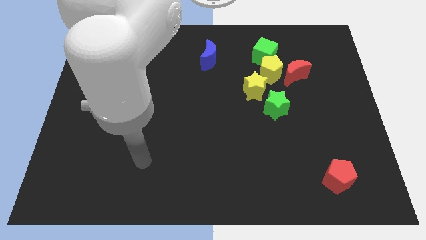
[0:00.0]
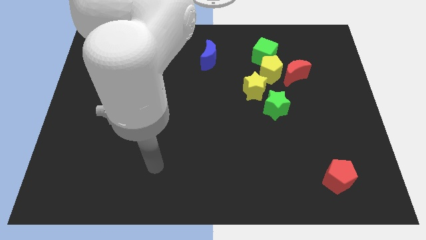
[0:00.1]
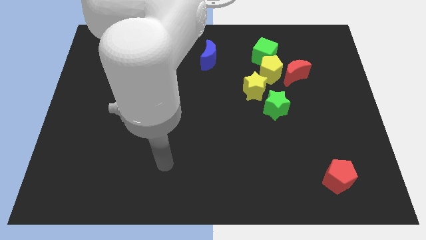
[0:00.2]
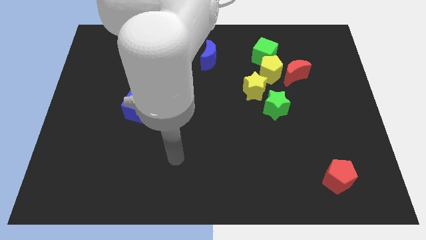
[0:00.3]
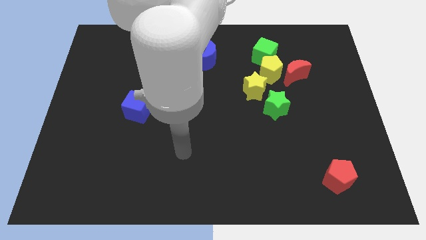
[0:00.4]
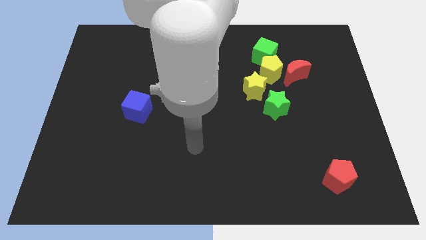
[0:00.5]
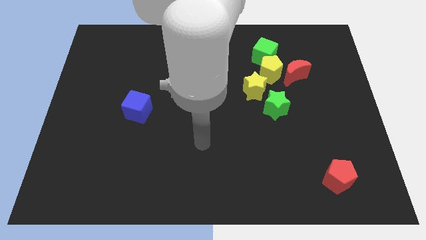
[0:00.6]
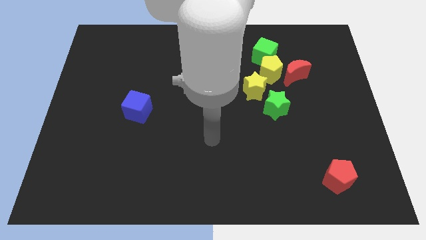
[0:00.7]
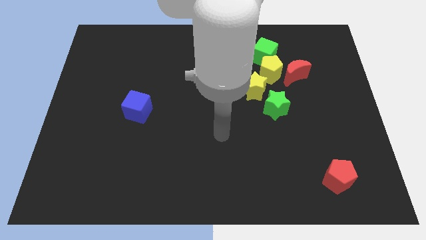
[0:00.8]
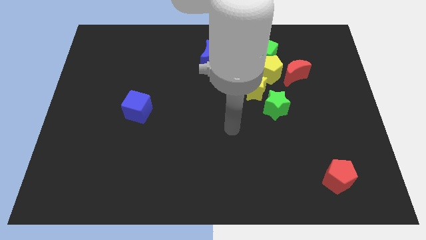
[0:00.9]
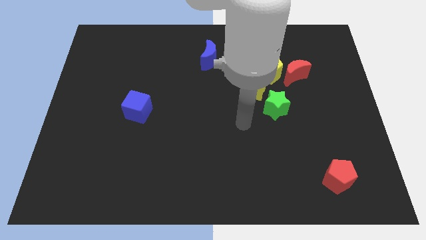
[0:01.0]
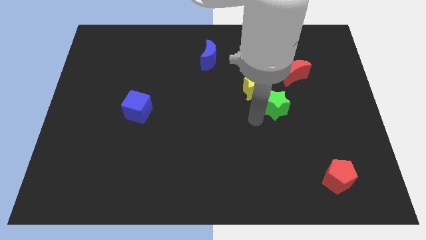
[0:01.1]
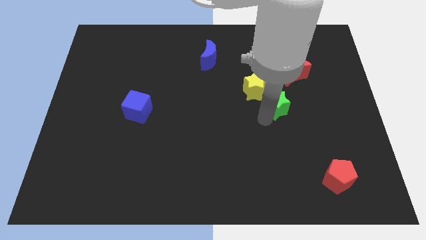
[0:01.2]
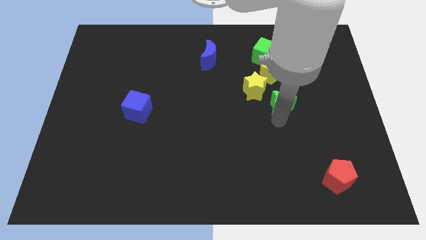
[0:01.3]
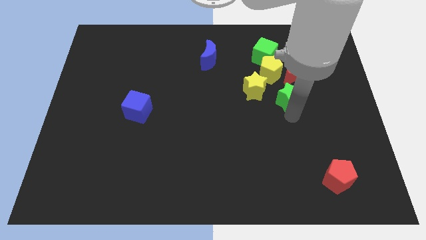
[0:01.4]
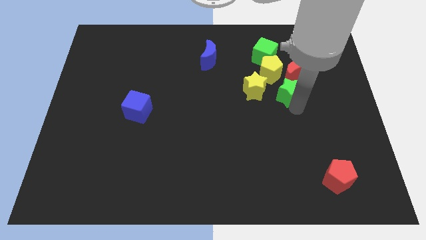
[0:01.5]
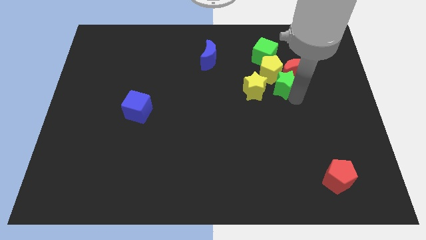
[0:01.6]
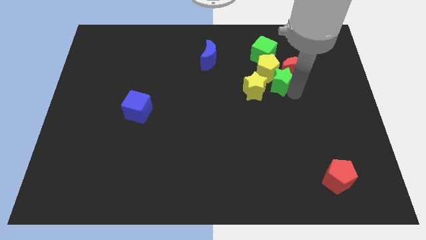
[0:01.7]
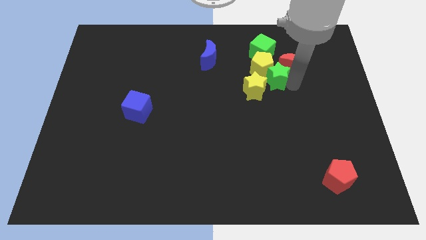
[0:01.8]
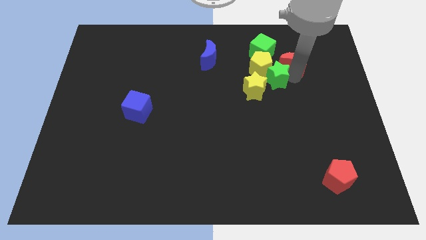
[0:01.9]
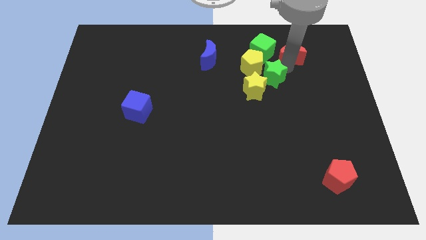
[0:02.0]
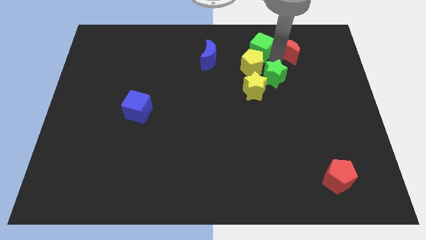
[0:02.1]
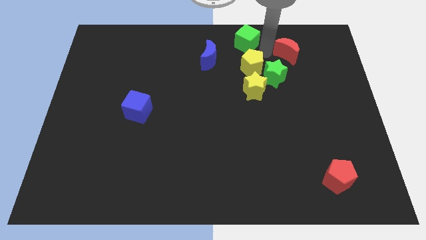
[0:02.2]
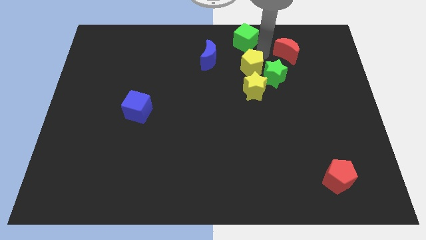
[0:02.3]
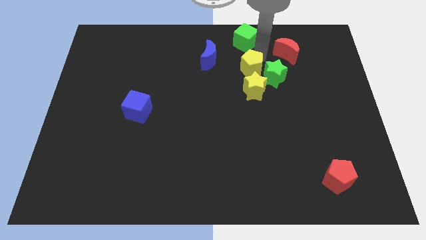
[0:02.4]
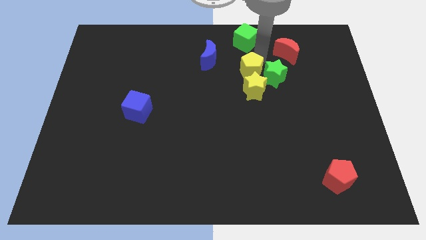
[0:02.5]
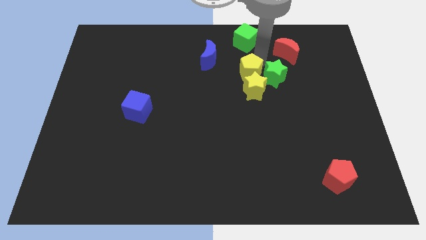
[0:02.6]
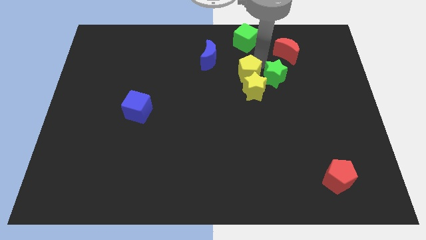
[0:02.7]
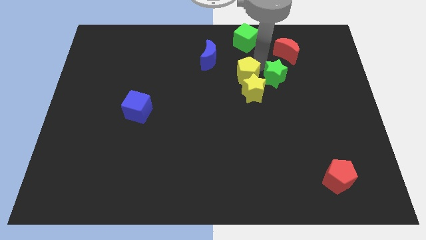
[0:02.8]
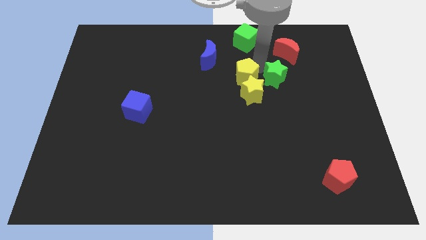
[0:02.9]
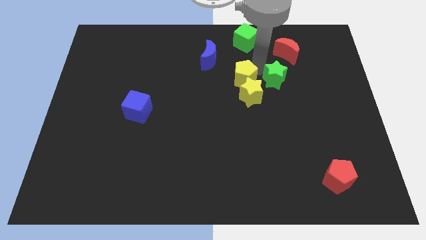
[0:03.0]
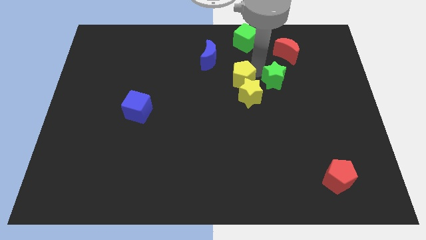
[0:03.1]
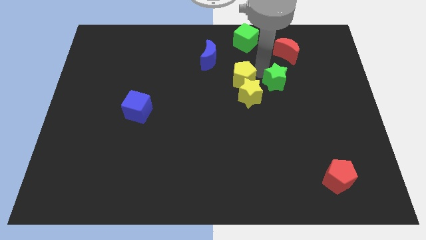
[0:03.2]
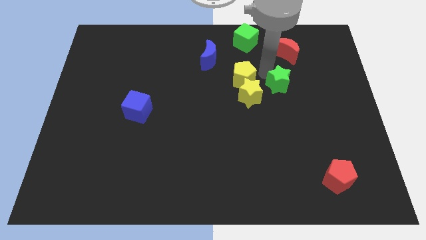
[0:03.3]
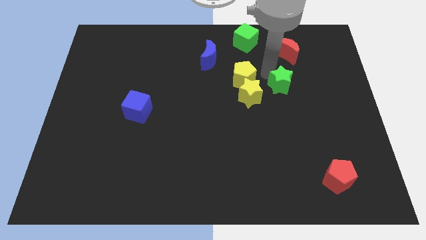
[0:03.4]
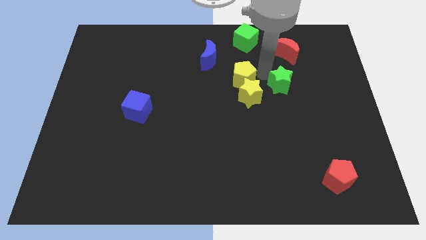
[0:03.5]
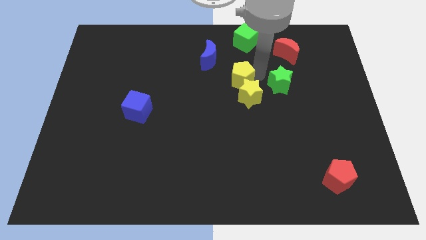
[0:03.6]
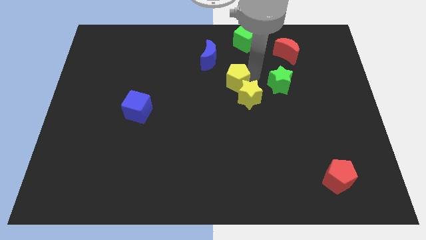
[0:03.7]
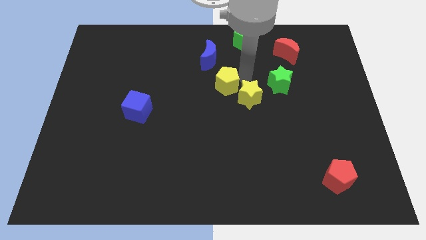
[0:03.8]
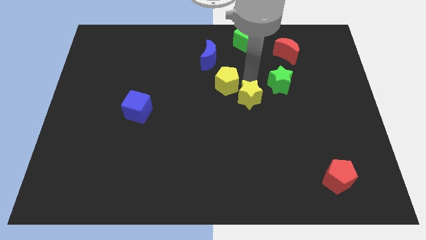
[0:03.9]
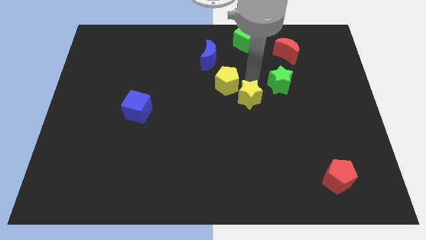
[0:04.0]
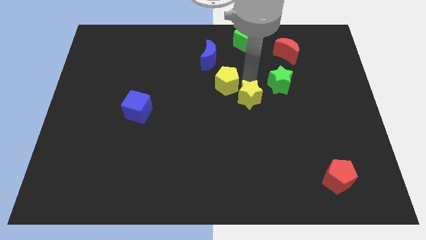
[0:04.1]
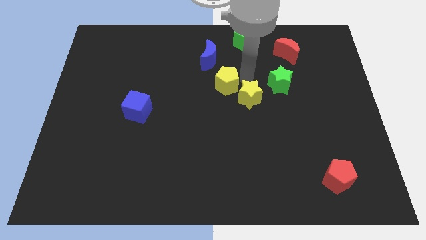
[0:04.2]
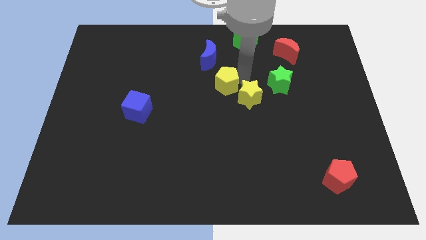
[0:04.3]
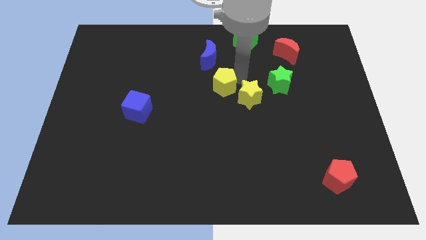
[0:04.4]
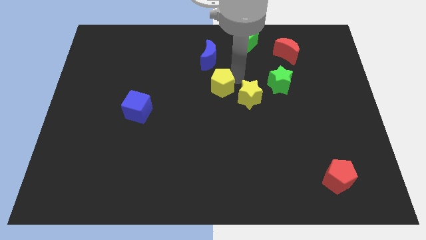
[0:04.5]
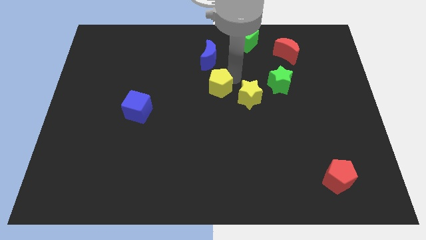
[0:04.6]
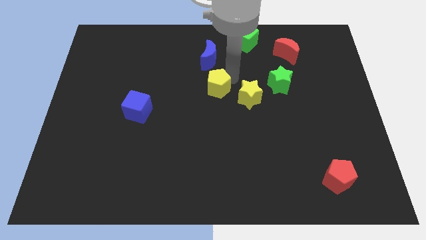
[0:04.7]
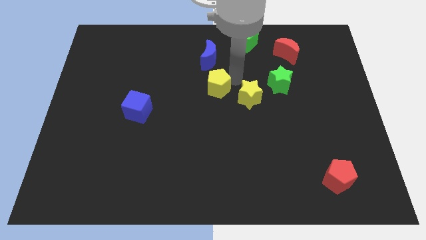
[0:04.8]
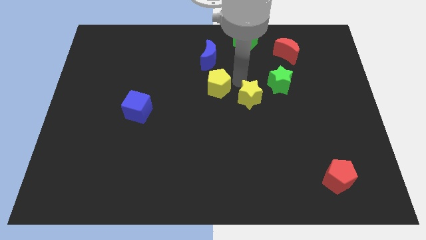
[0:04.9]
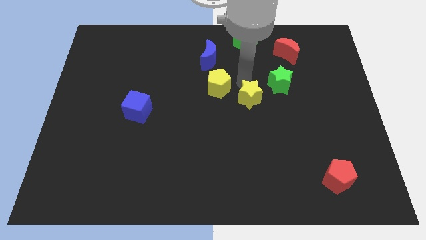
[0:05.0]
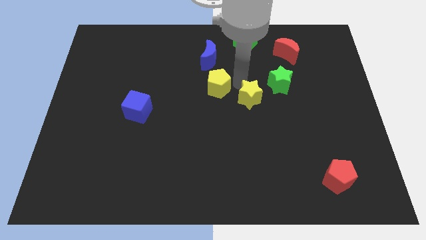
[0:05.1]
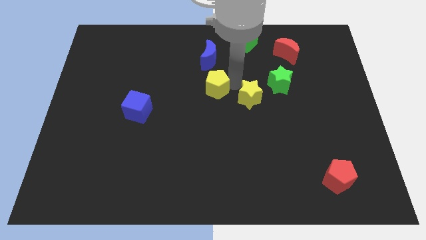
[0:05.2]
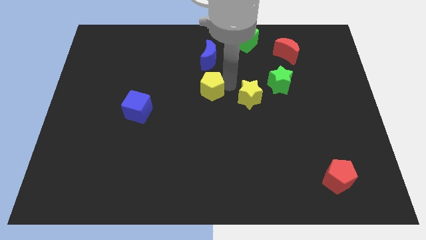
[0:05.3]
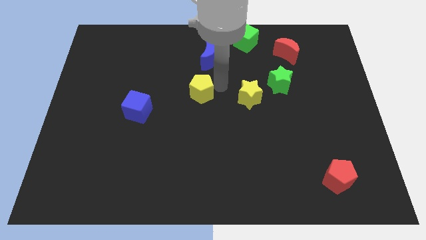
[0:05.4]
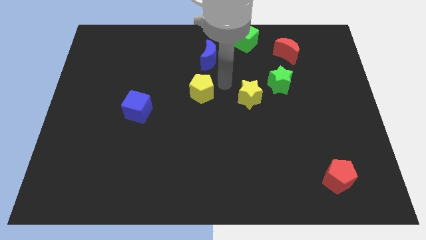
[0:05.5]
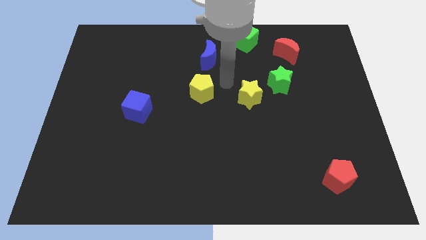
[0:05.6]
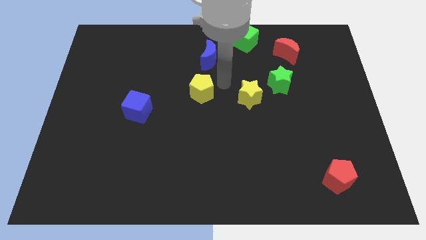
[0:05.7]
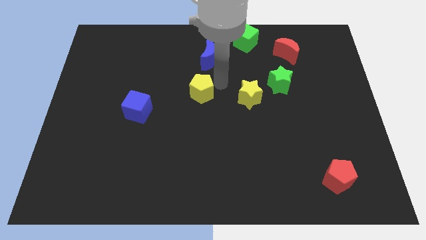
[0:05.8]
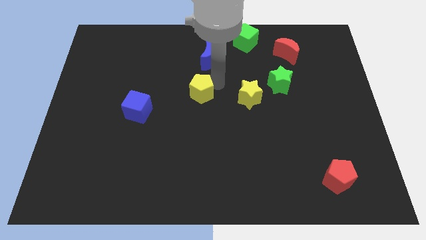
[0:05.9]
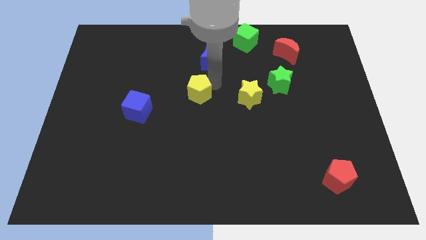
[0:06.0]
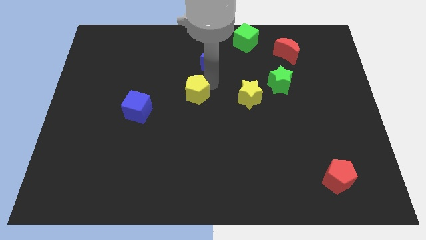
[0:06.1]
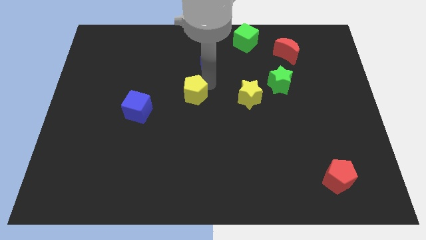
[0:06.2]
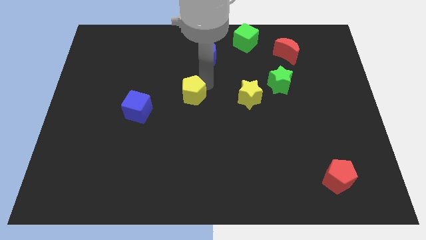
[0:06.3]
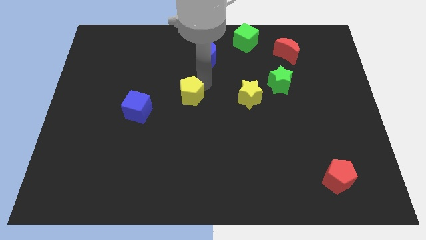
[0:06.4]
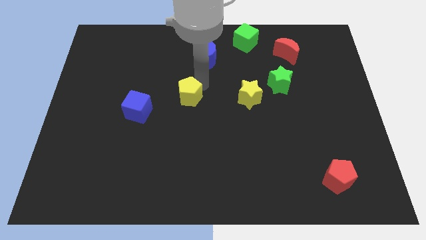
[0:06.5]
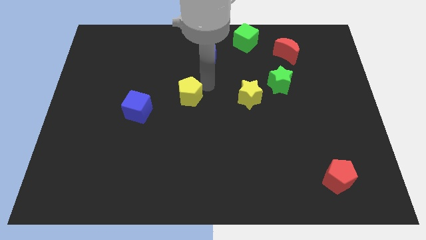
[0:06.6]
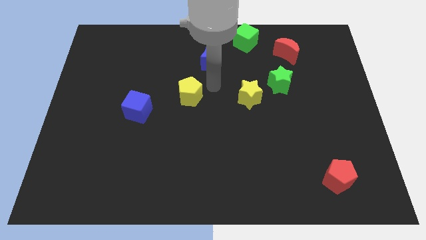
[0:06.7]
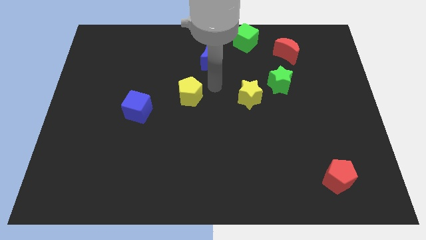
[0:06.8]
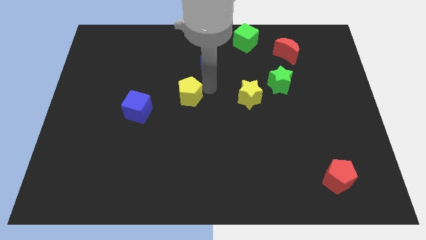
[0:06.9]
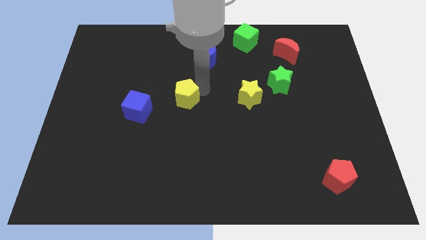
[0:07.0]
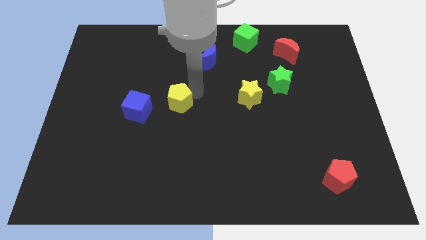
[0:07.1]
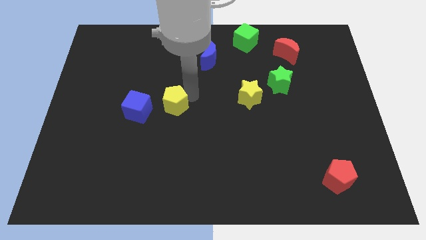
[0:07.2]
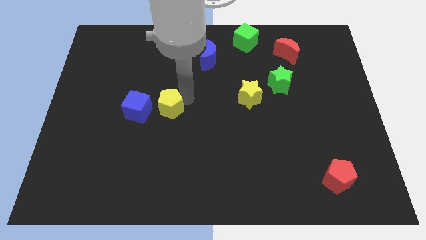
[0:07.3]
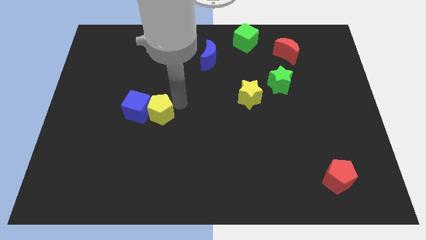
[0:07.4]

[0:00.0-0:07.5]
move the yellow pentagon close to the blue cube

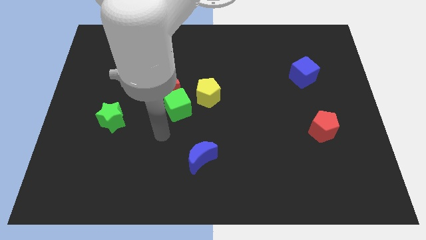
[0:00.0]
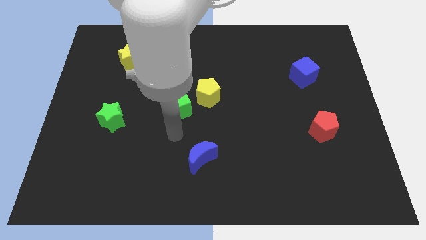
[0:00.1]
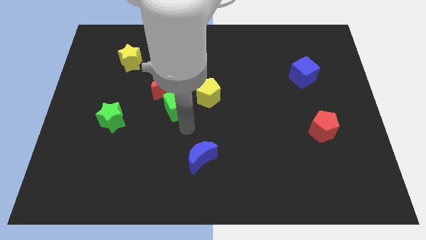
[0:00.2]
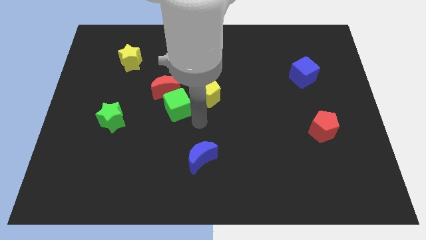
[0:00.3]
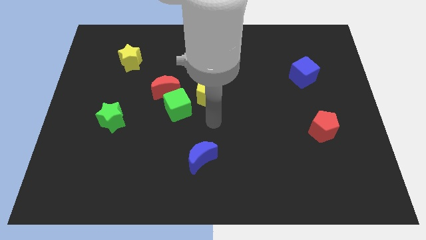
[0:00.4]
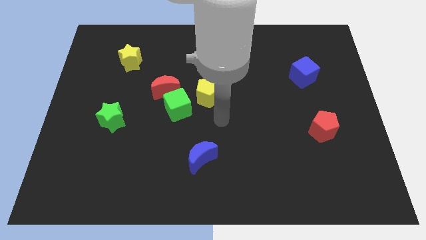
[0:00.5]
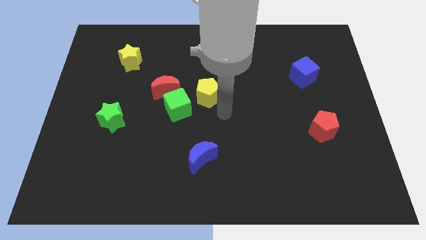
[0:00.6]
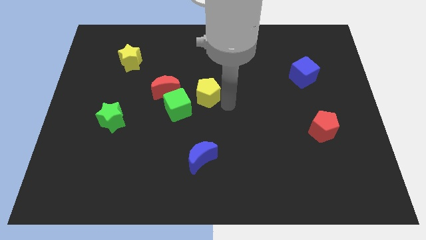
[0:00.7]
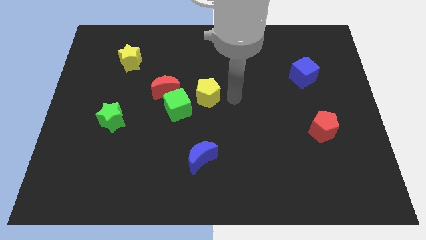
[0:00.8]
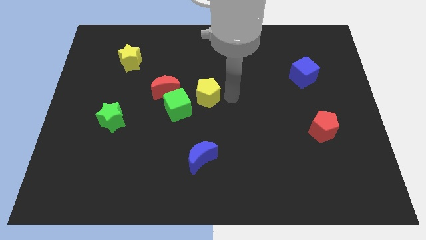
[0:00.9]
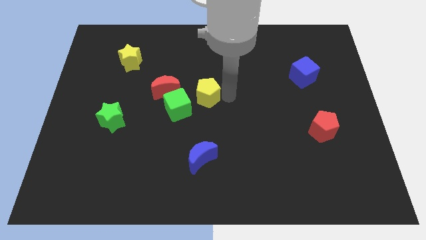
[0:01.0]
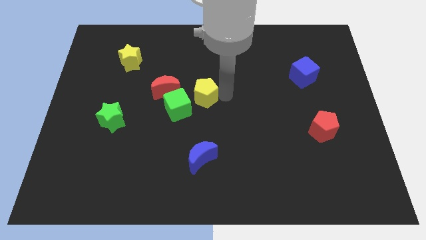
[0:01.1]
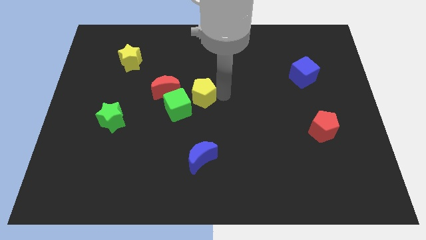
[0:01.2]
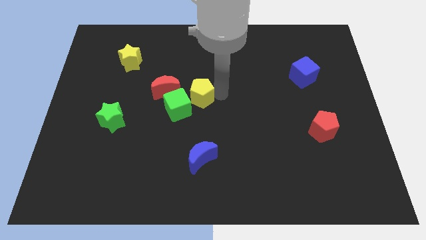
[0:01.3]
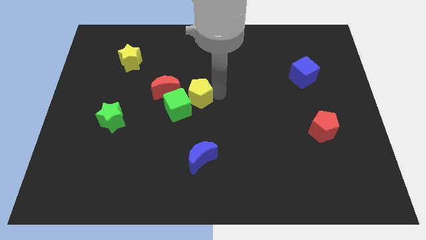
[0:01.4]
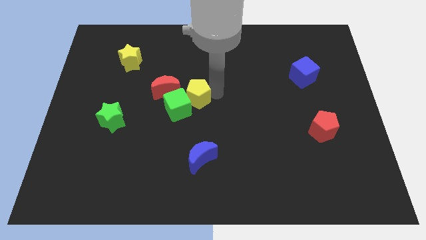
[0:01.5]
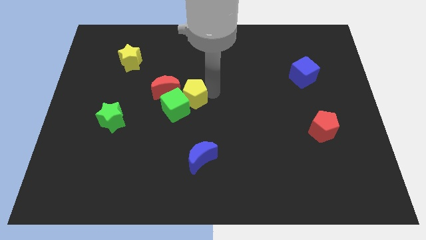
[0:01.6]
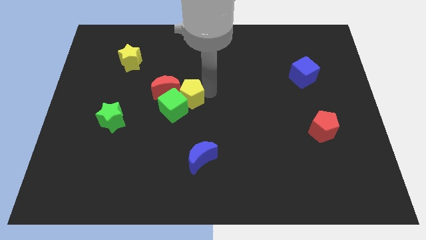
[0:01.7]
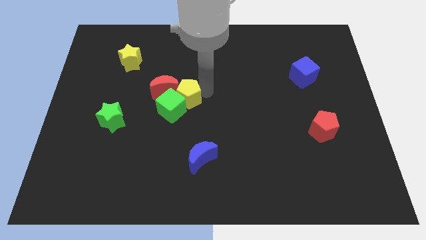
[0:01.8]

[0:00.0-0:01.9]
slide the yellow pentagon to the red moon
